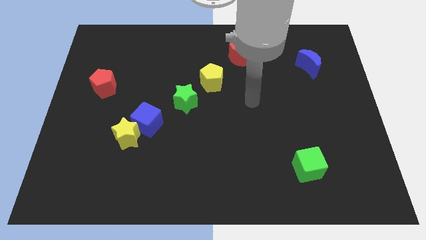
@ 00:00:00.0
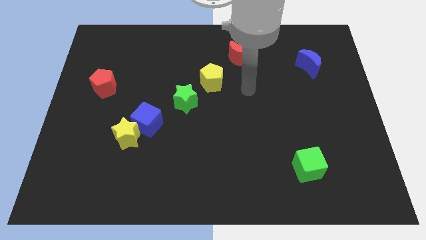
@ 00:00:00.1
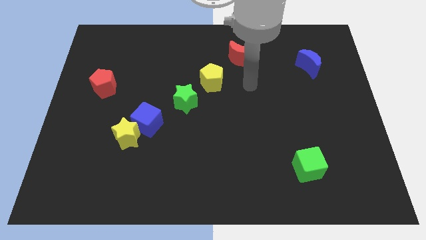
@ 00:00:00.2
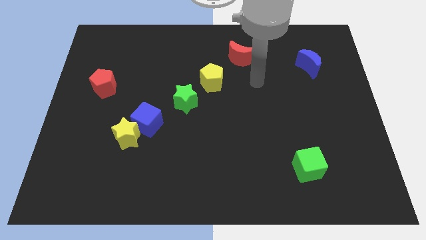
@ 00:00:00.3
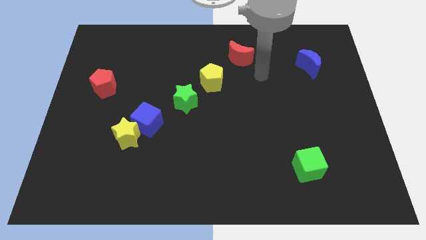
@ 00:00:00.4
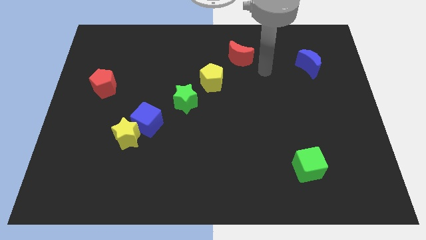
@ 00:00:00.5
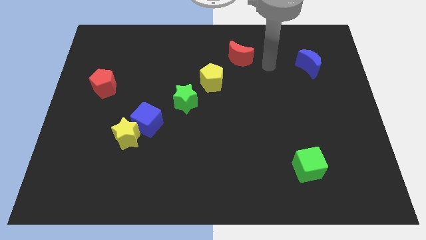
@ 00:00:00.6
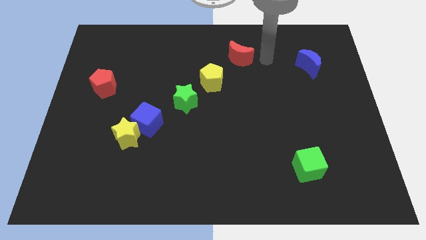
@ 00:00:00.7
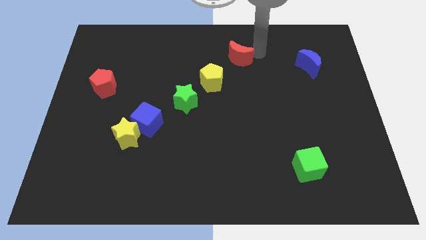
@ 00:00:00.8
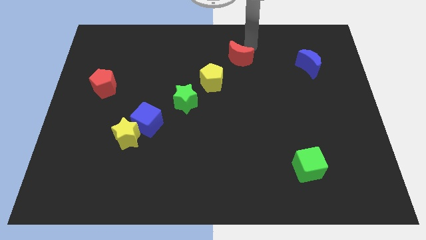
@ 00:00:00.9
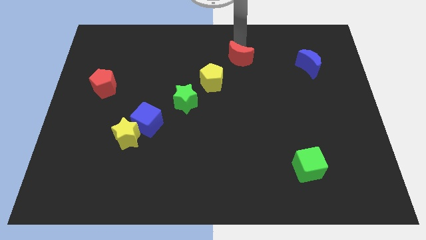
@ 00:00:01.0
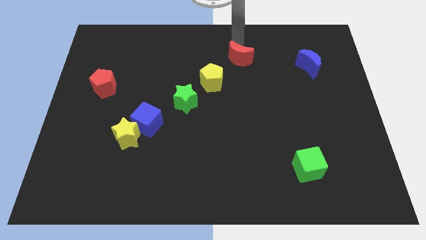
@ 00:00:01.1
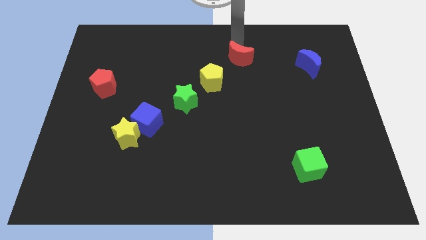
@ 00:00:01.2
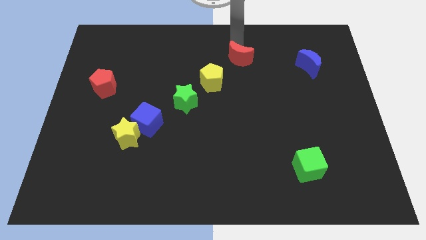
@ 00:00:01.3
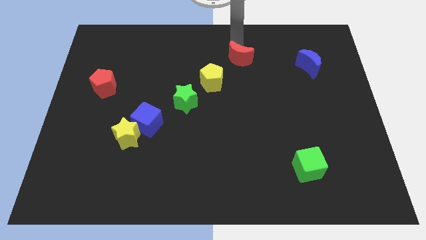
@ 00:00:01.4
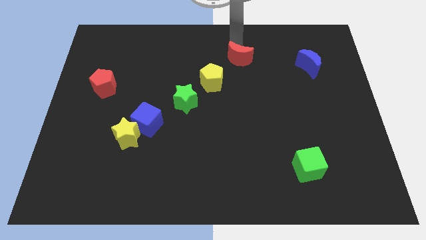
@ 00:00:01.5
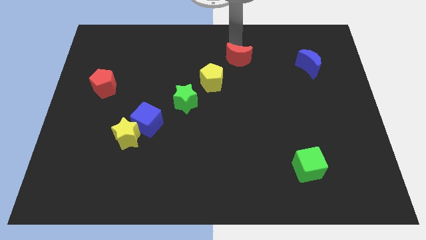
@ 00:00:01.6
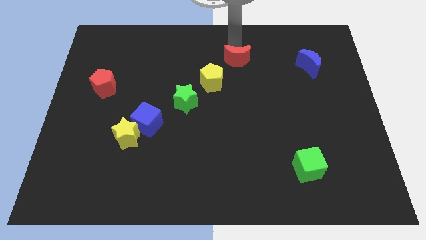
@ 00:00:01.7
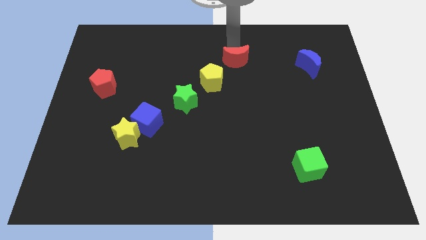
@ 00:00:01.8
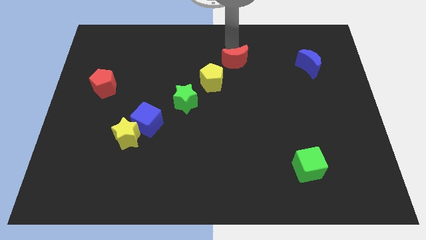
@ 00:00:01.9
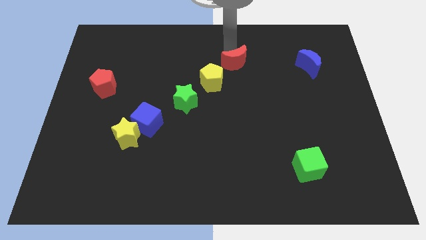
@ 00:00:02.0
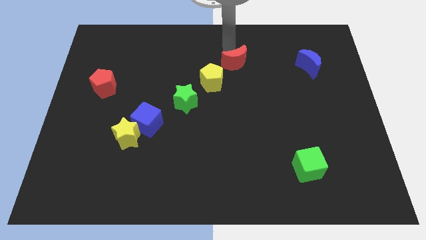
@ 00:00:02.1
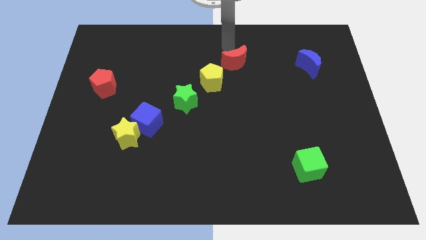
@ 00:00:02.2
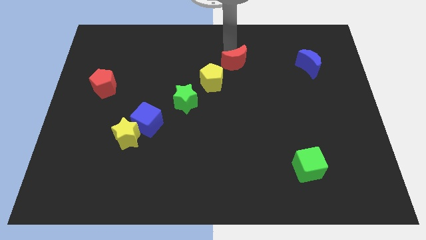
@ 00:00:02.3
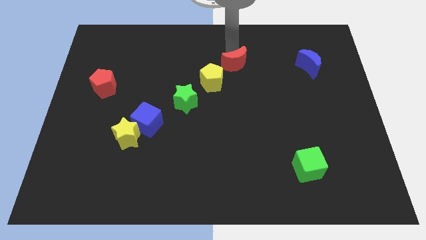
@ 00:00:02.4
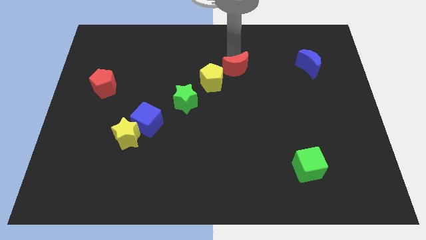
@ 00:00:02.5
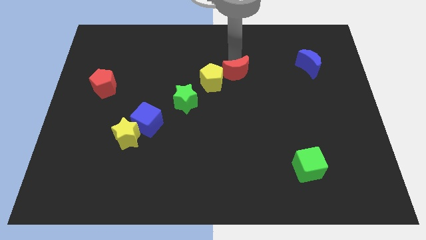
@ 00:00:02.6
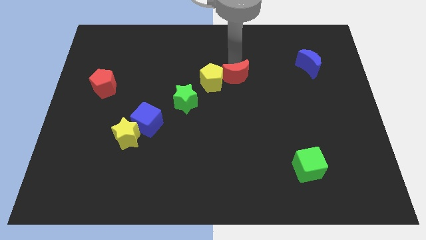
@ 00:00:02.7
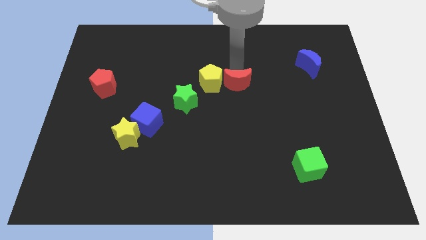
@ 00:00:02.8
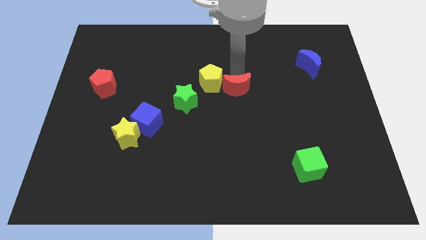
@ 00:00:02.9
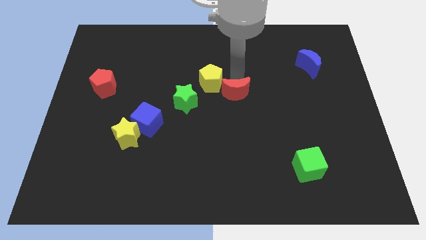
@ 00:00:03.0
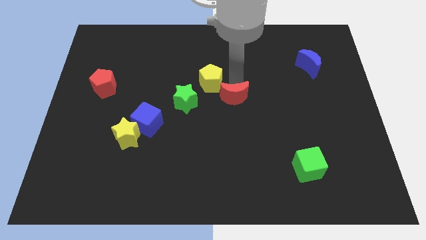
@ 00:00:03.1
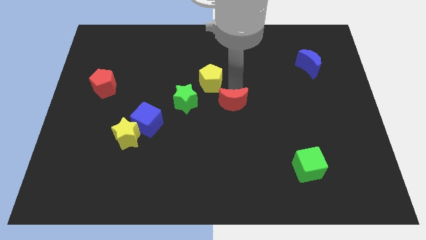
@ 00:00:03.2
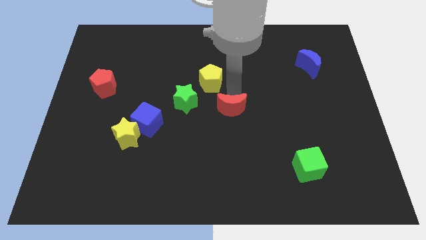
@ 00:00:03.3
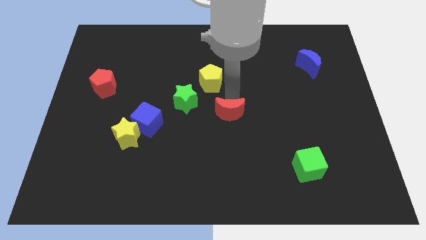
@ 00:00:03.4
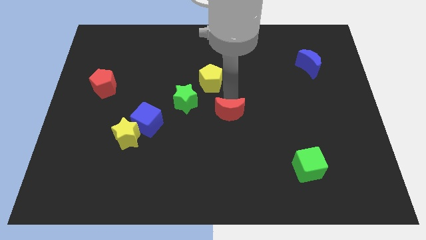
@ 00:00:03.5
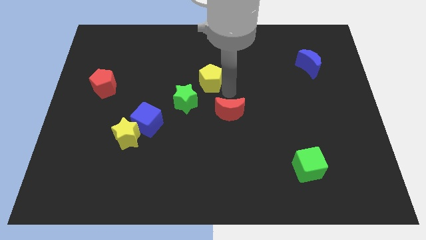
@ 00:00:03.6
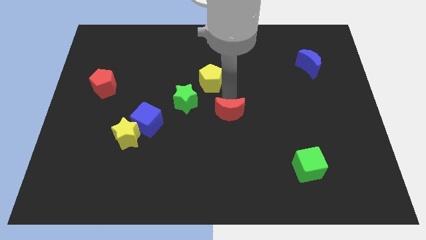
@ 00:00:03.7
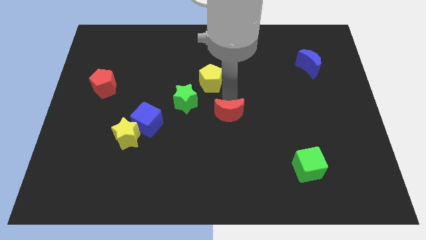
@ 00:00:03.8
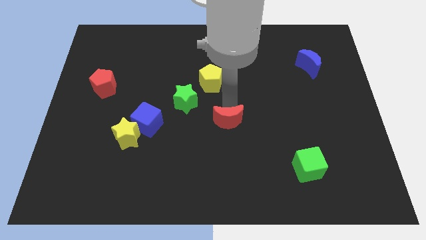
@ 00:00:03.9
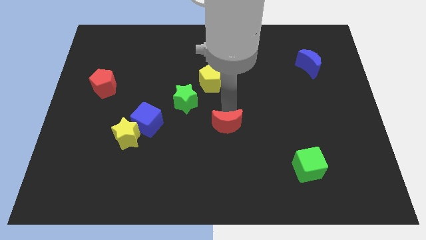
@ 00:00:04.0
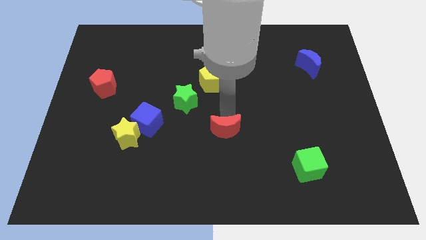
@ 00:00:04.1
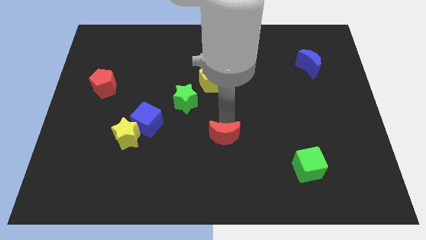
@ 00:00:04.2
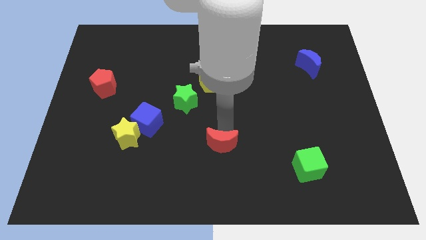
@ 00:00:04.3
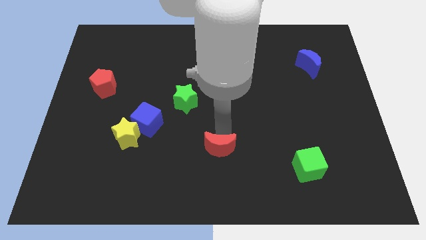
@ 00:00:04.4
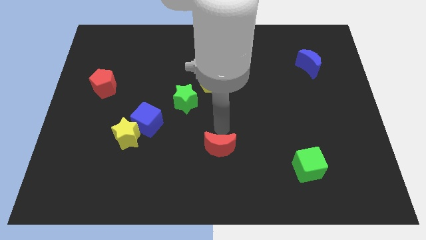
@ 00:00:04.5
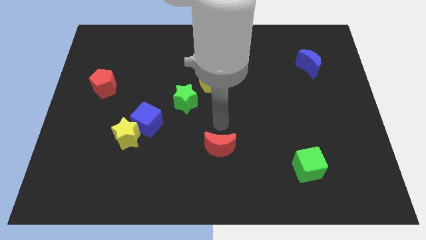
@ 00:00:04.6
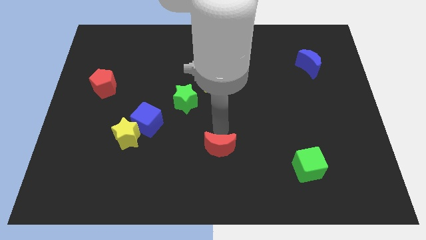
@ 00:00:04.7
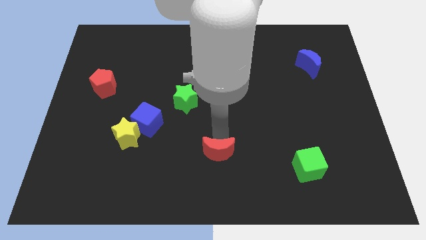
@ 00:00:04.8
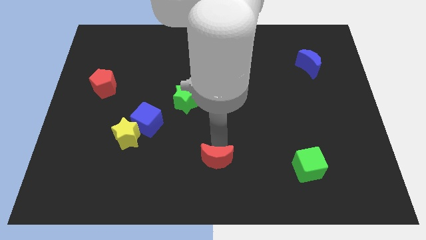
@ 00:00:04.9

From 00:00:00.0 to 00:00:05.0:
slide the red moon to the bottom

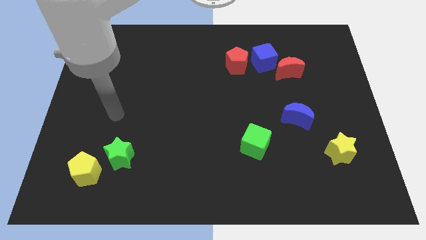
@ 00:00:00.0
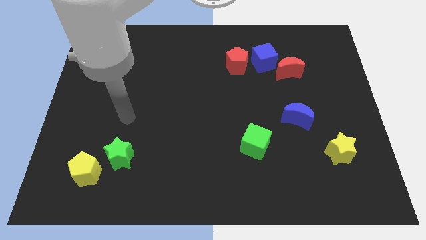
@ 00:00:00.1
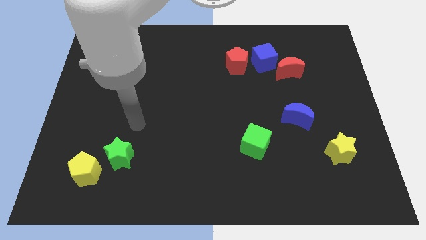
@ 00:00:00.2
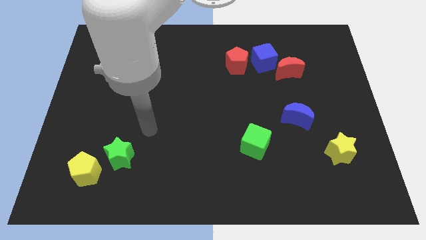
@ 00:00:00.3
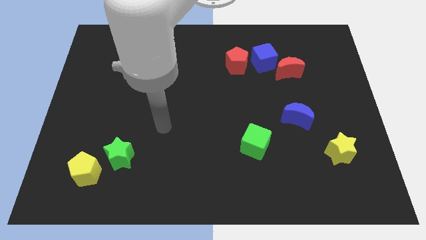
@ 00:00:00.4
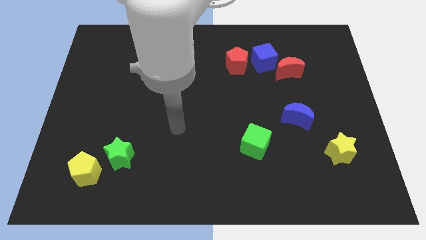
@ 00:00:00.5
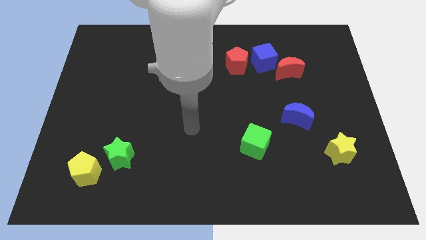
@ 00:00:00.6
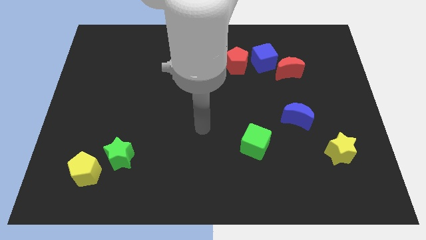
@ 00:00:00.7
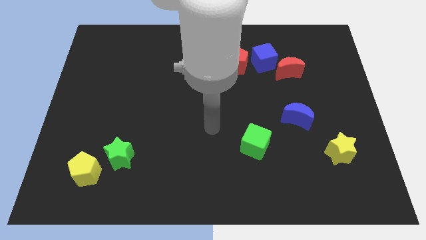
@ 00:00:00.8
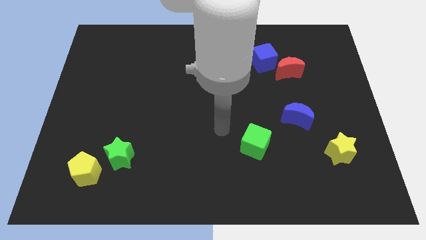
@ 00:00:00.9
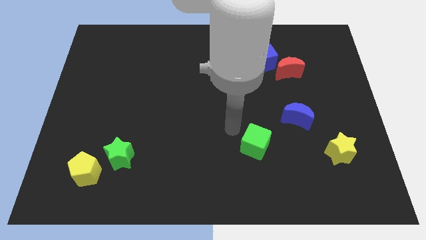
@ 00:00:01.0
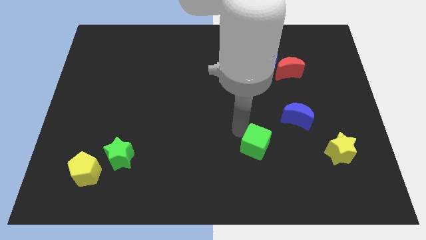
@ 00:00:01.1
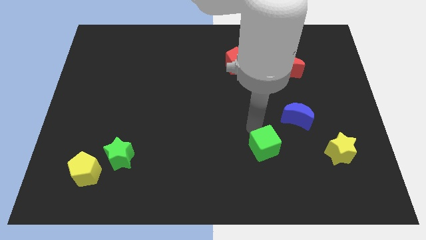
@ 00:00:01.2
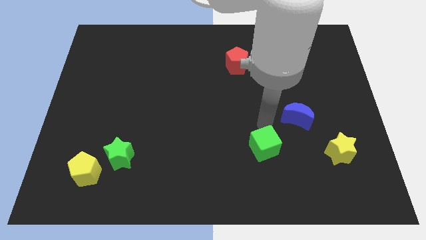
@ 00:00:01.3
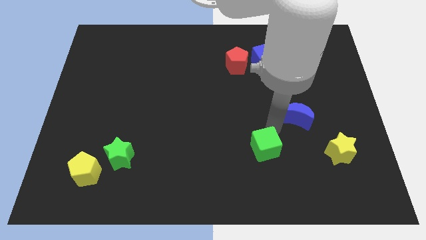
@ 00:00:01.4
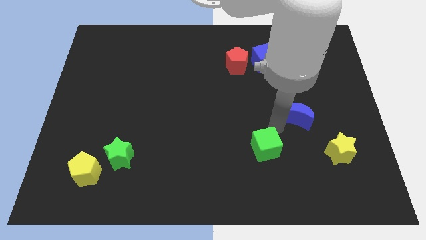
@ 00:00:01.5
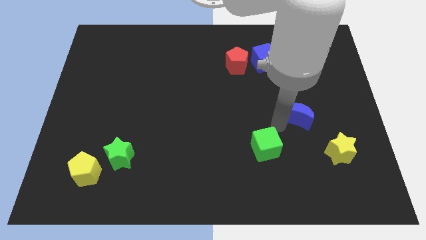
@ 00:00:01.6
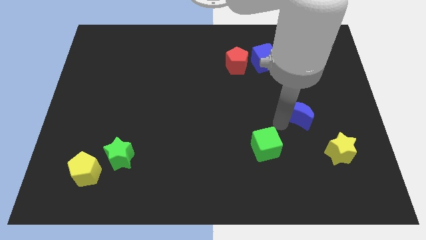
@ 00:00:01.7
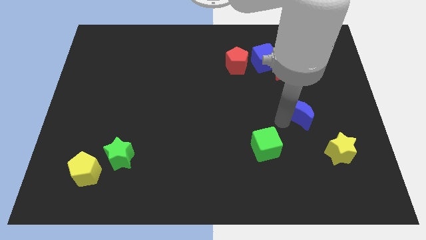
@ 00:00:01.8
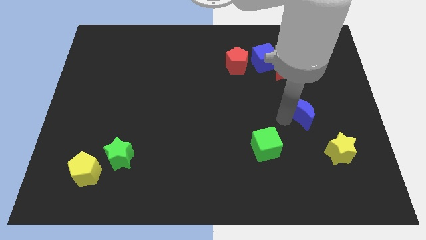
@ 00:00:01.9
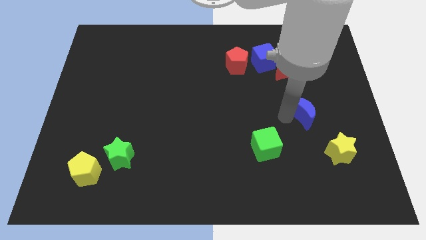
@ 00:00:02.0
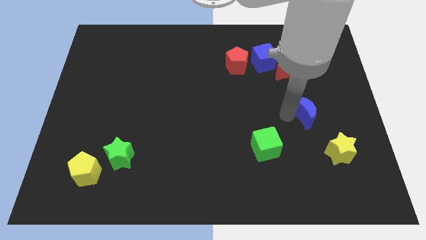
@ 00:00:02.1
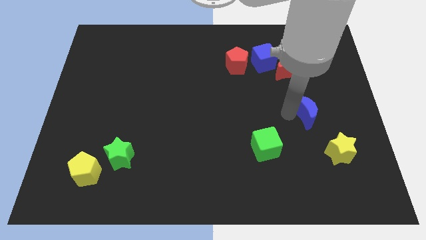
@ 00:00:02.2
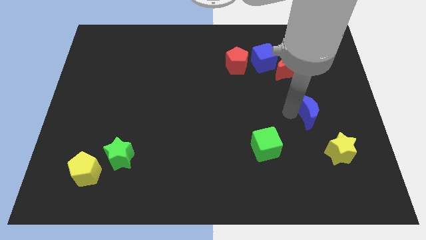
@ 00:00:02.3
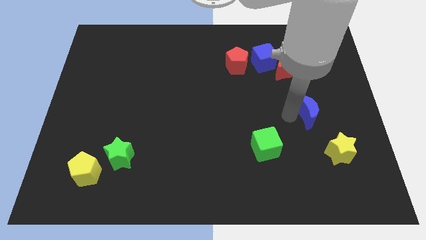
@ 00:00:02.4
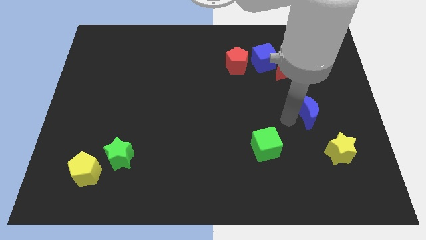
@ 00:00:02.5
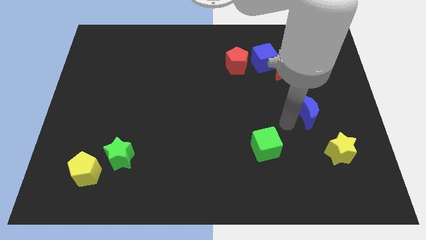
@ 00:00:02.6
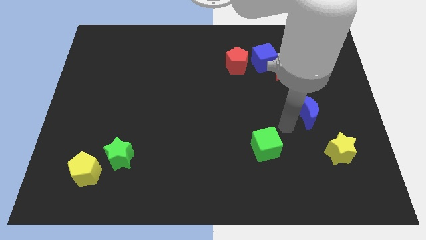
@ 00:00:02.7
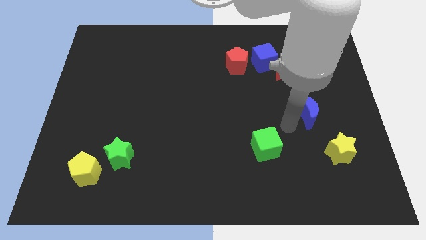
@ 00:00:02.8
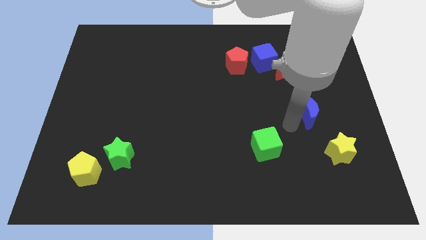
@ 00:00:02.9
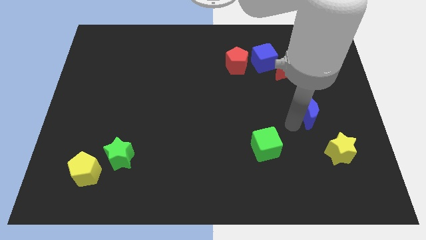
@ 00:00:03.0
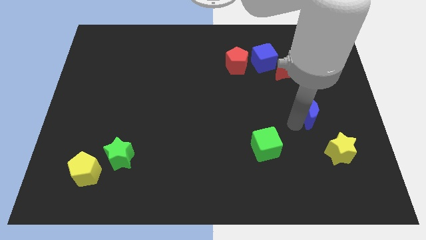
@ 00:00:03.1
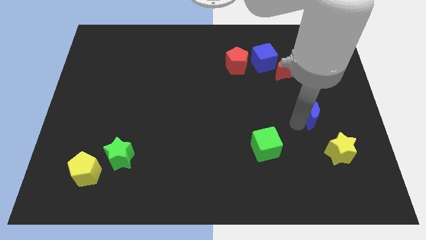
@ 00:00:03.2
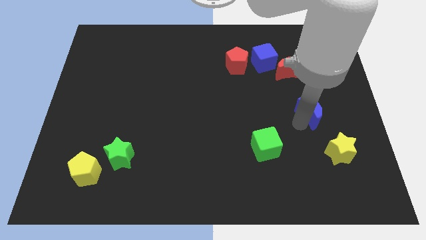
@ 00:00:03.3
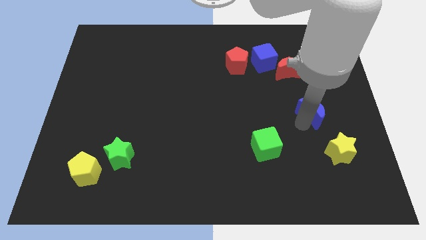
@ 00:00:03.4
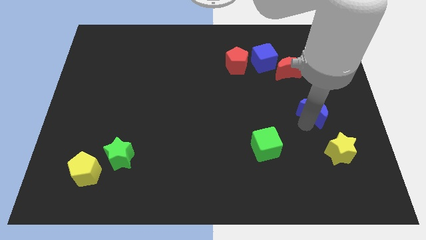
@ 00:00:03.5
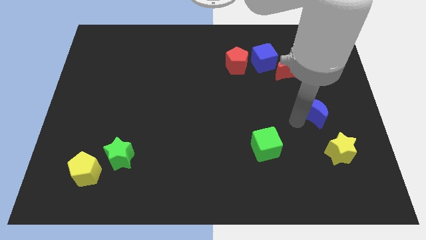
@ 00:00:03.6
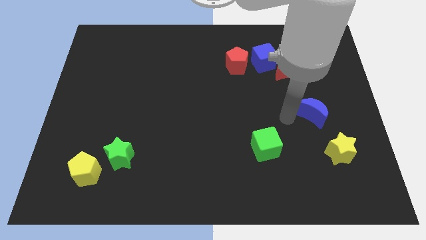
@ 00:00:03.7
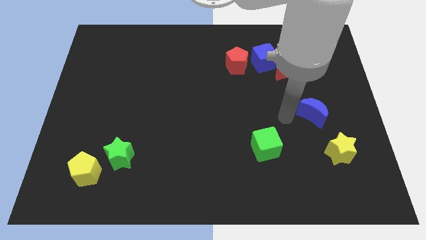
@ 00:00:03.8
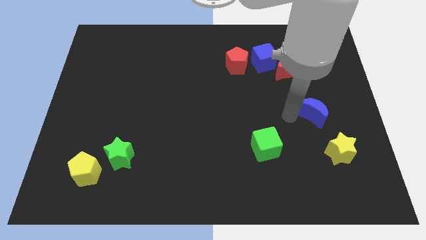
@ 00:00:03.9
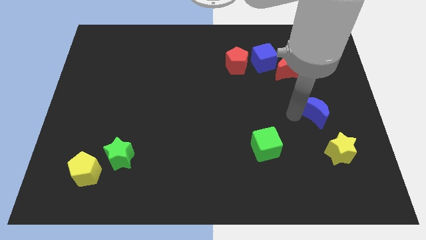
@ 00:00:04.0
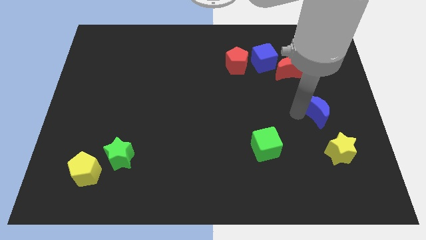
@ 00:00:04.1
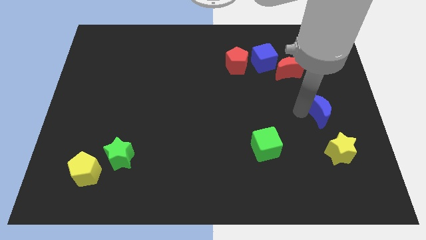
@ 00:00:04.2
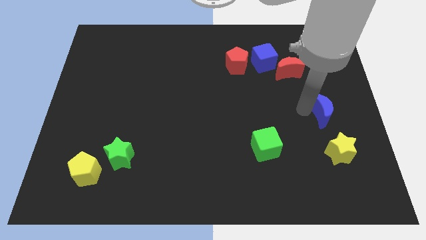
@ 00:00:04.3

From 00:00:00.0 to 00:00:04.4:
slide the blue moon to the right side
